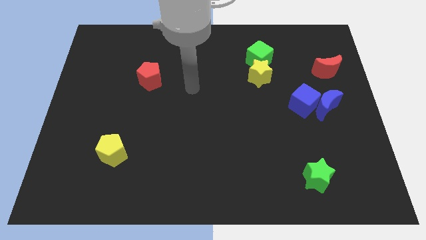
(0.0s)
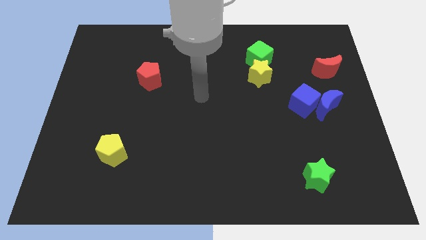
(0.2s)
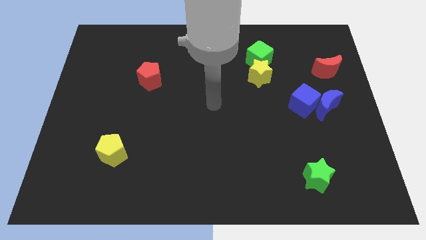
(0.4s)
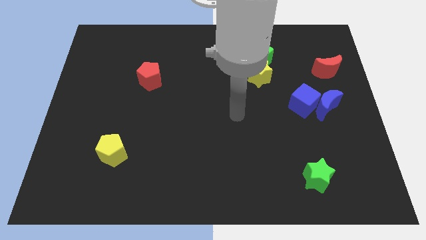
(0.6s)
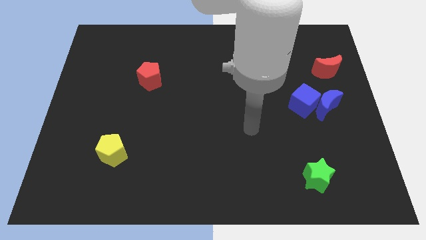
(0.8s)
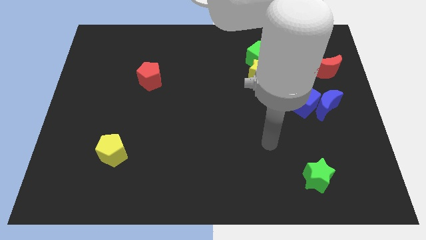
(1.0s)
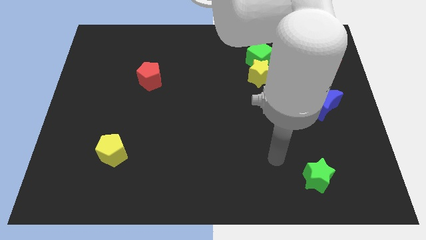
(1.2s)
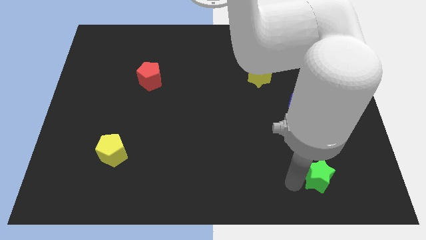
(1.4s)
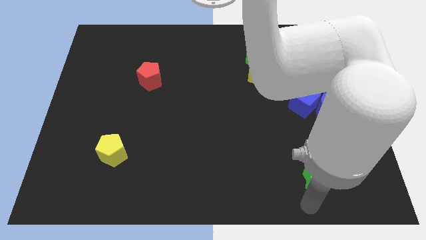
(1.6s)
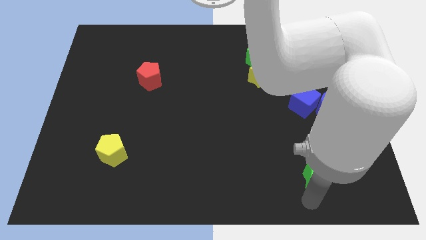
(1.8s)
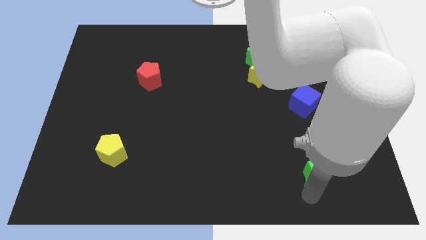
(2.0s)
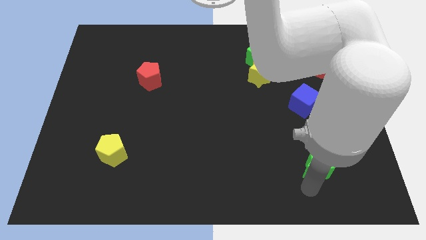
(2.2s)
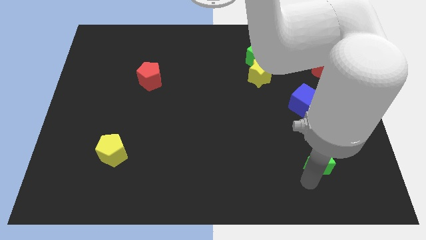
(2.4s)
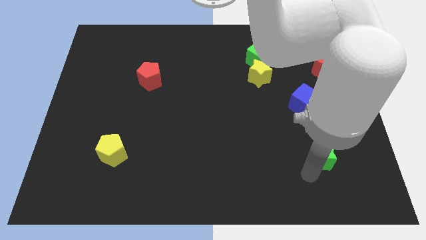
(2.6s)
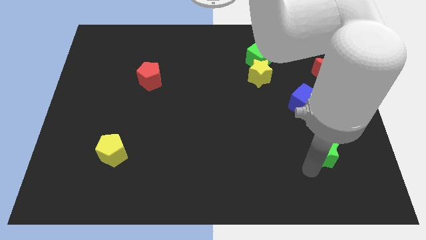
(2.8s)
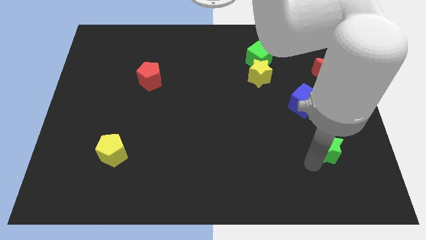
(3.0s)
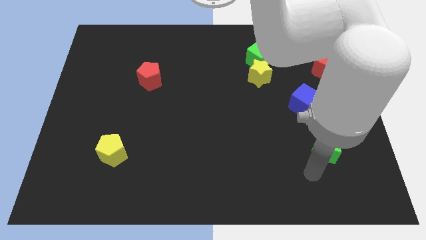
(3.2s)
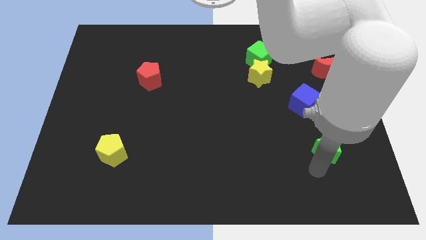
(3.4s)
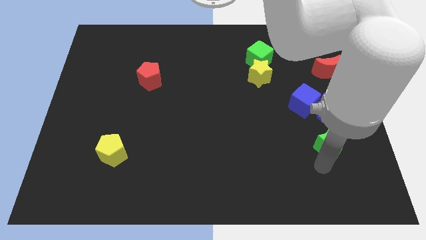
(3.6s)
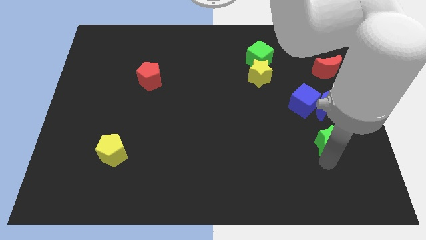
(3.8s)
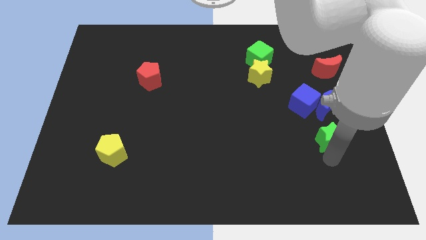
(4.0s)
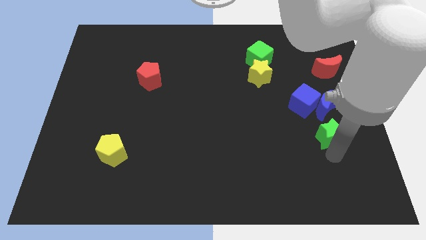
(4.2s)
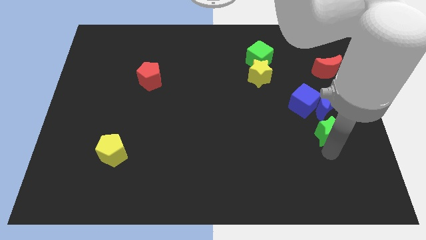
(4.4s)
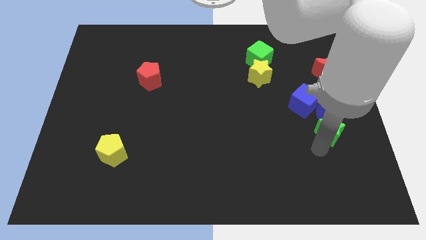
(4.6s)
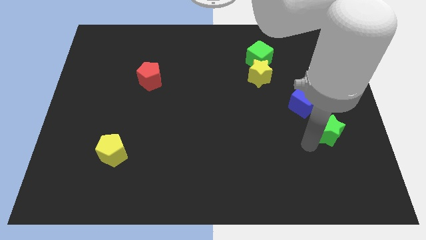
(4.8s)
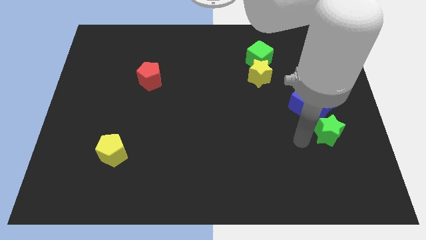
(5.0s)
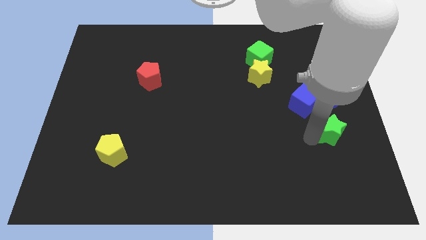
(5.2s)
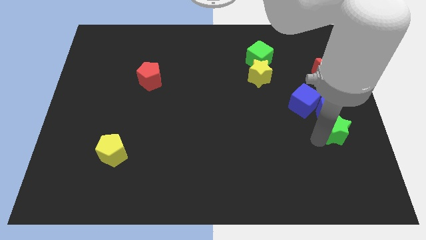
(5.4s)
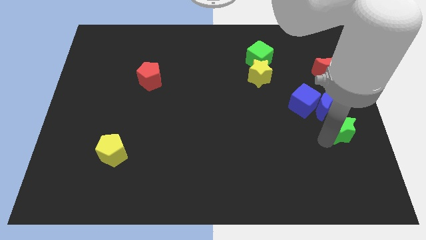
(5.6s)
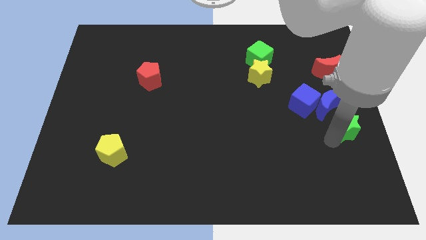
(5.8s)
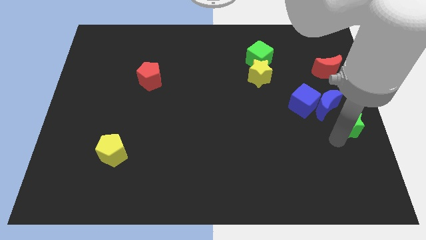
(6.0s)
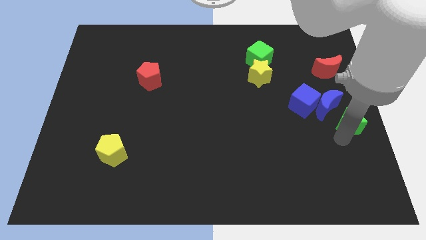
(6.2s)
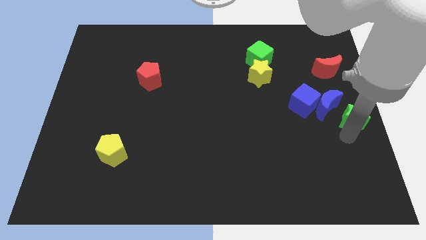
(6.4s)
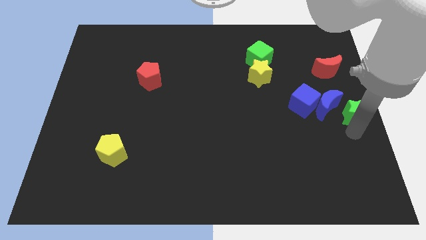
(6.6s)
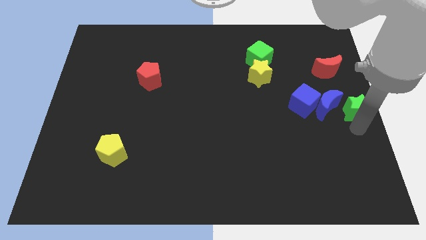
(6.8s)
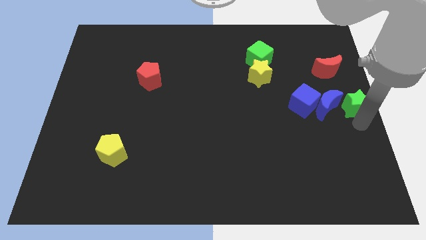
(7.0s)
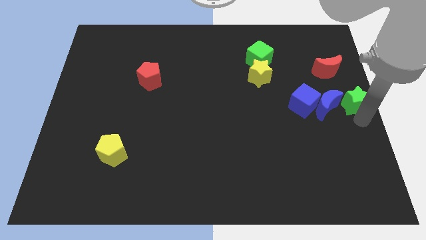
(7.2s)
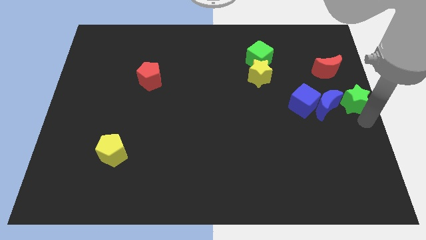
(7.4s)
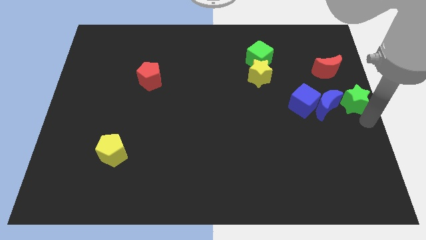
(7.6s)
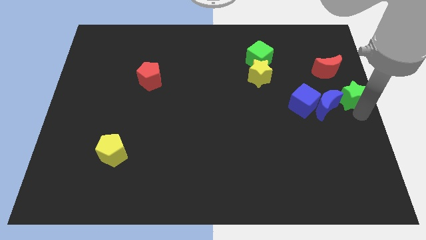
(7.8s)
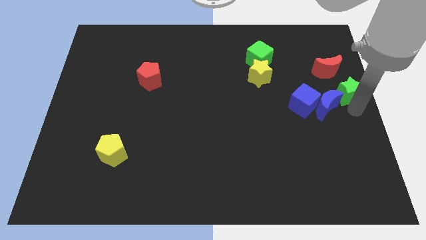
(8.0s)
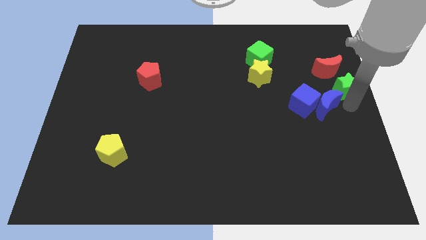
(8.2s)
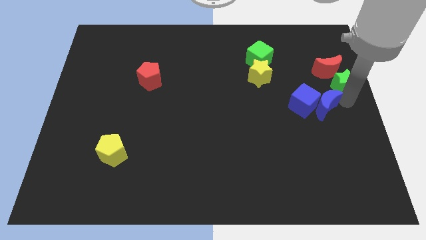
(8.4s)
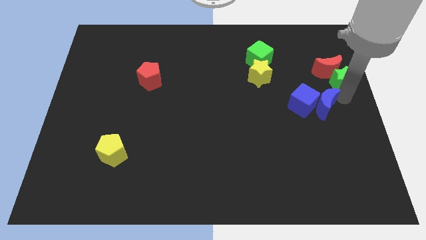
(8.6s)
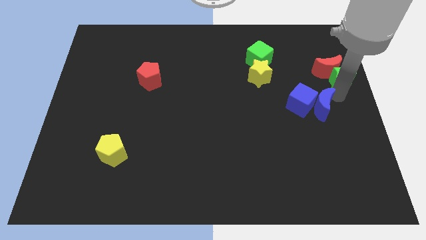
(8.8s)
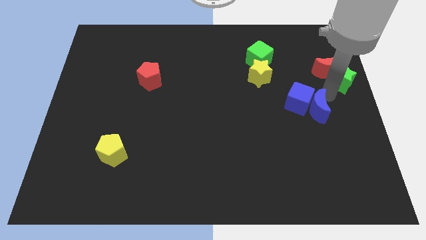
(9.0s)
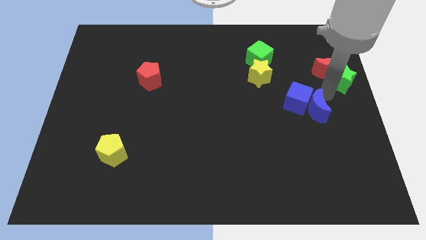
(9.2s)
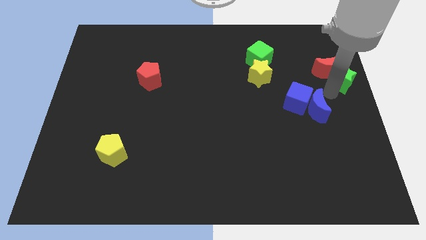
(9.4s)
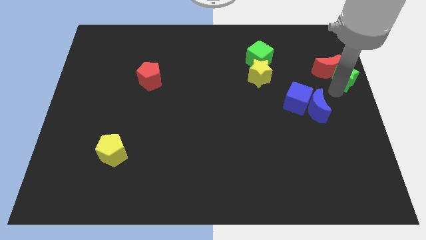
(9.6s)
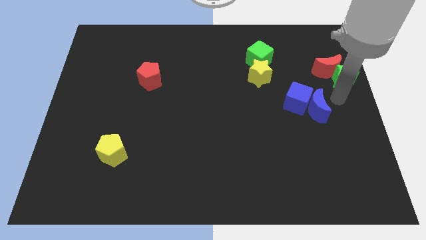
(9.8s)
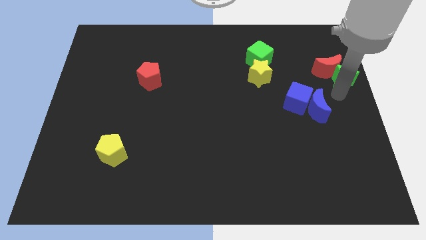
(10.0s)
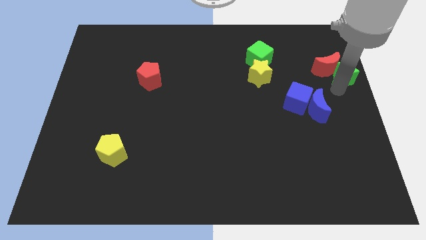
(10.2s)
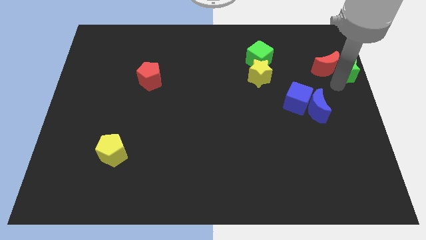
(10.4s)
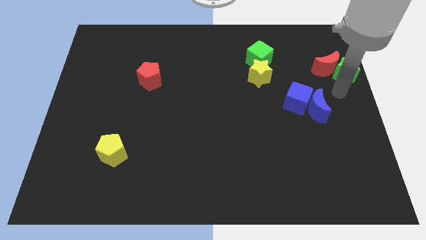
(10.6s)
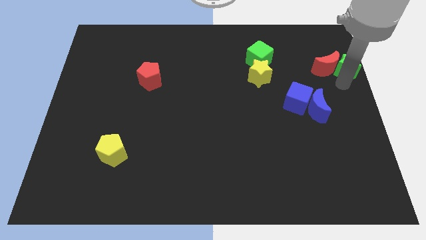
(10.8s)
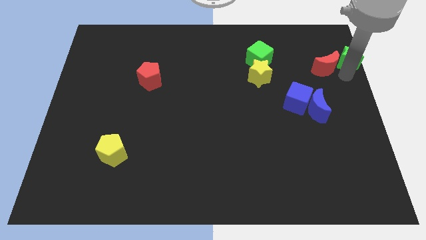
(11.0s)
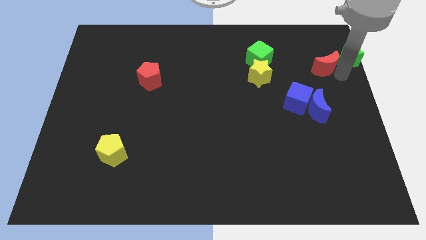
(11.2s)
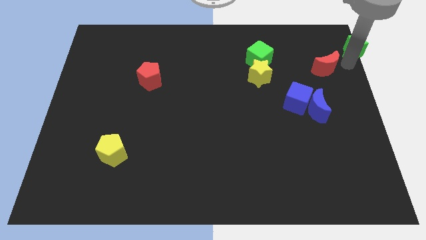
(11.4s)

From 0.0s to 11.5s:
move the green star to the upper right corner
